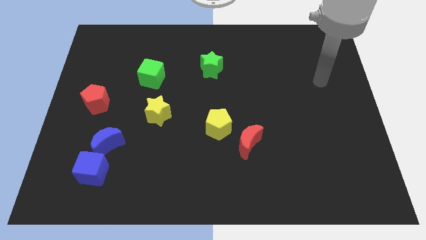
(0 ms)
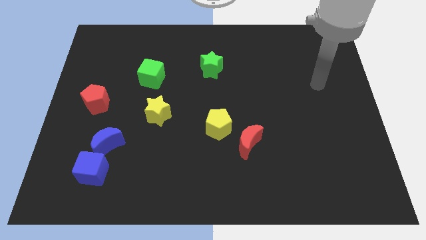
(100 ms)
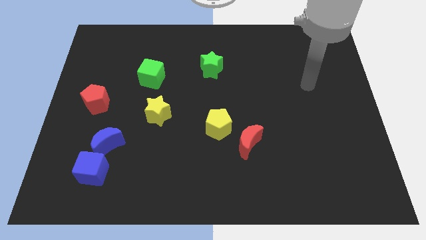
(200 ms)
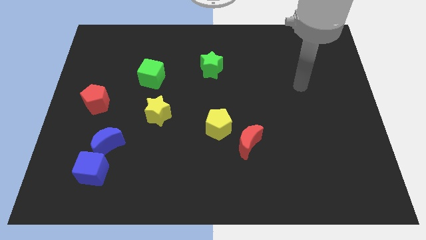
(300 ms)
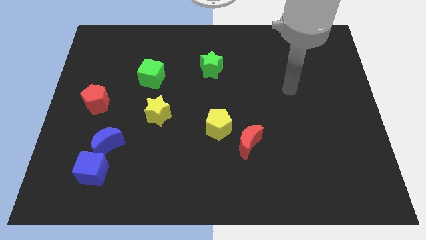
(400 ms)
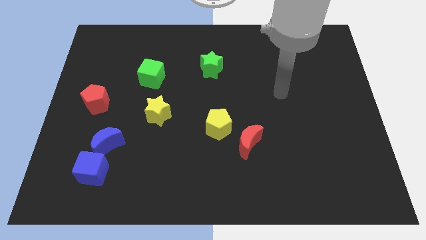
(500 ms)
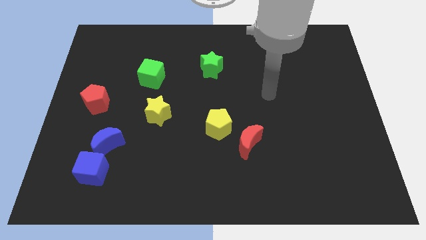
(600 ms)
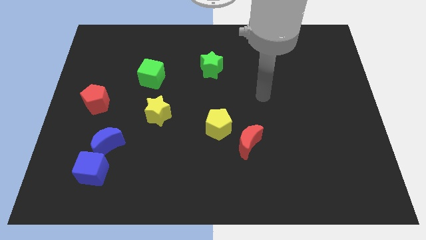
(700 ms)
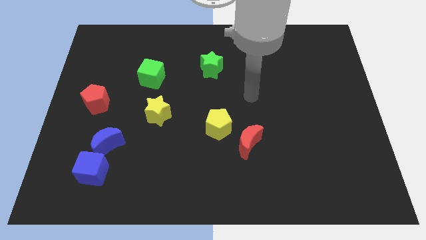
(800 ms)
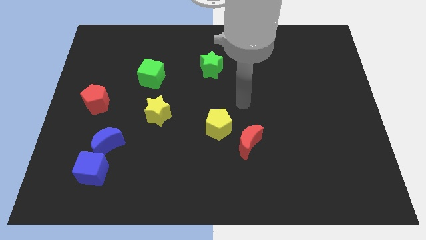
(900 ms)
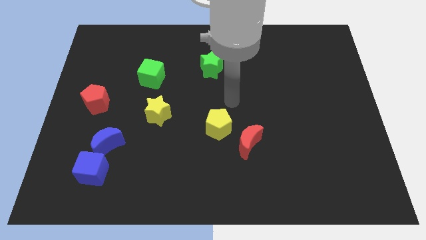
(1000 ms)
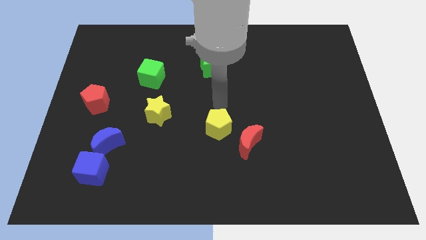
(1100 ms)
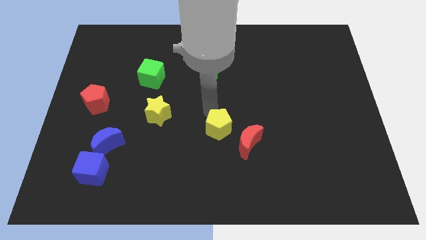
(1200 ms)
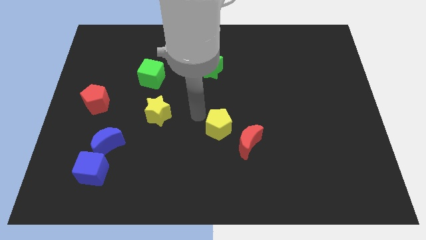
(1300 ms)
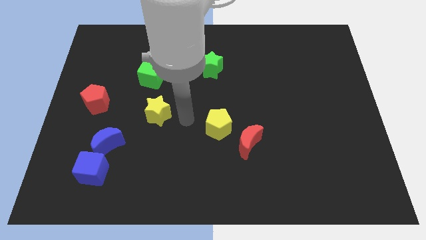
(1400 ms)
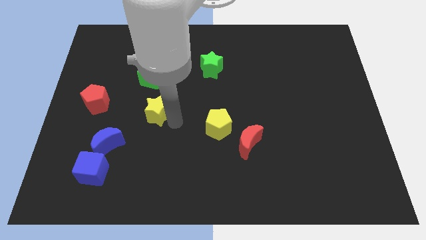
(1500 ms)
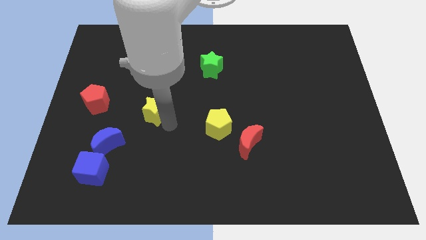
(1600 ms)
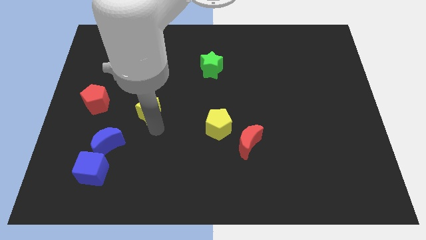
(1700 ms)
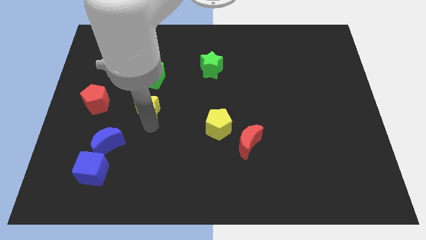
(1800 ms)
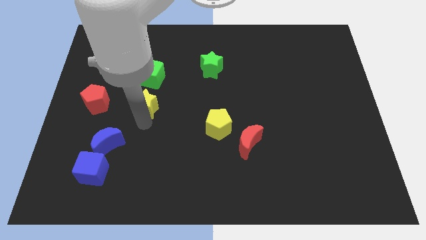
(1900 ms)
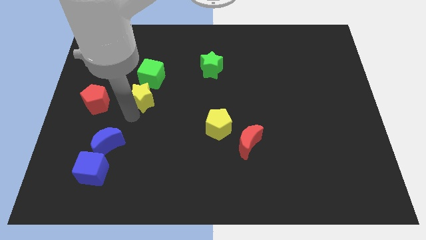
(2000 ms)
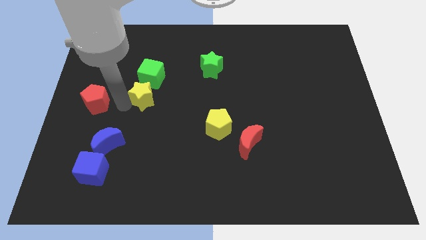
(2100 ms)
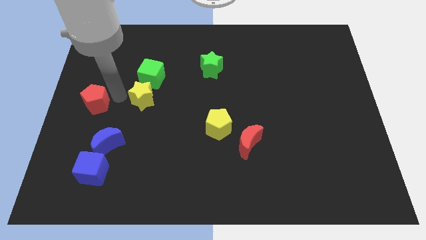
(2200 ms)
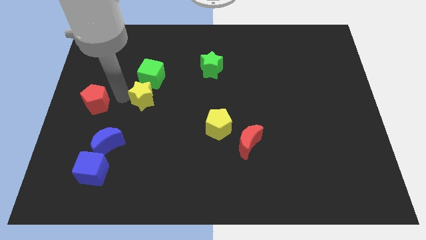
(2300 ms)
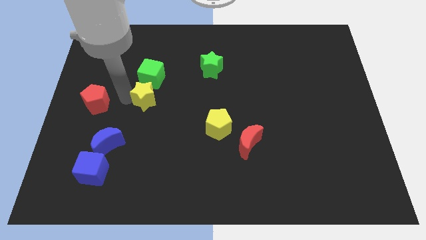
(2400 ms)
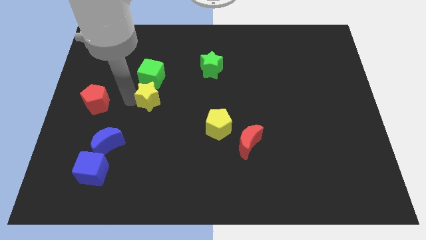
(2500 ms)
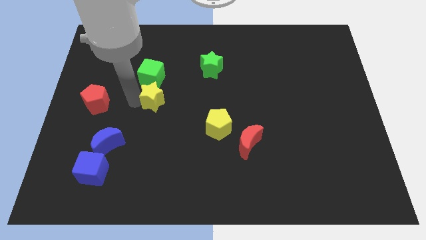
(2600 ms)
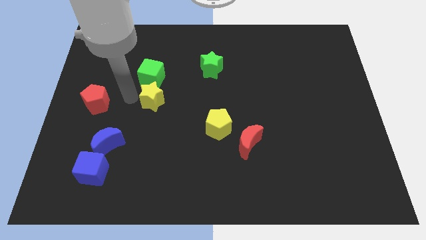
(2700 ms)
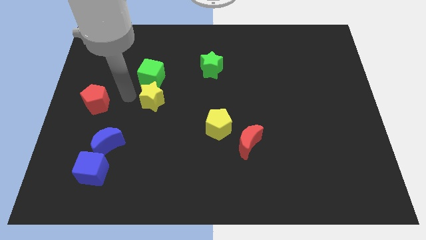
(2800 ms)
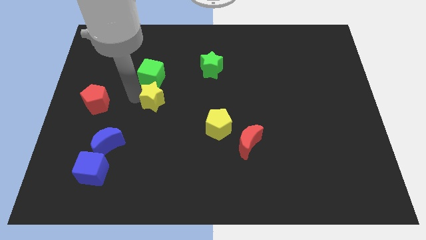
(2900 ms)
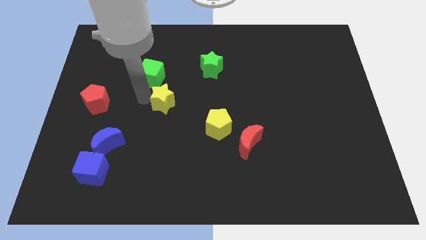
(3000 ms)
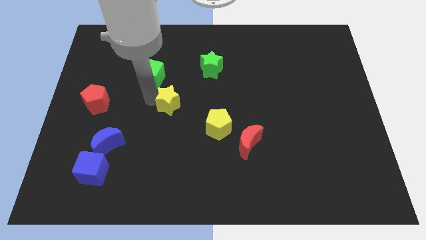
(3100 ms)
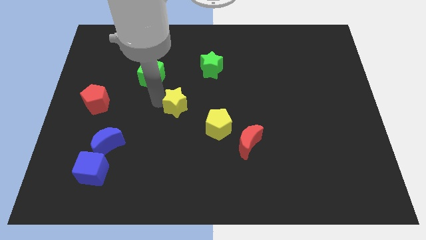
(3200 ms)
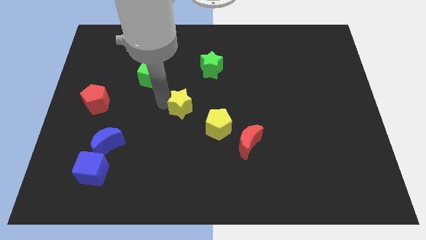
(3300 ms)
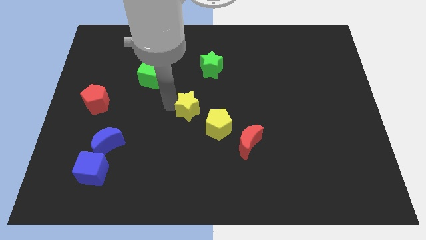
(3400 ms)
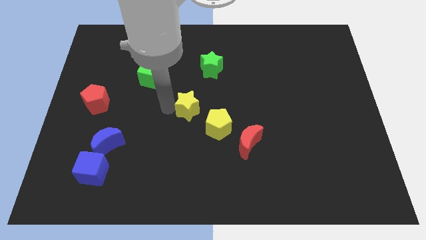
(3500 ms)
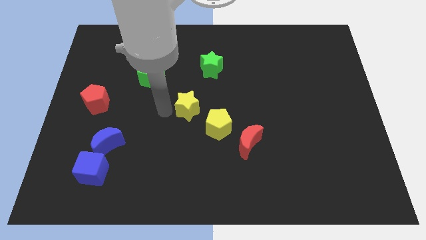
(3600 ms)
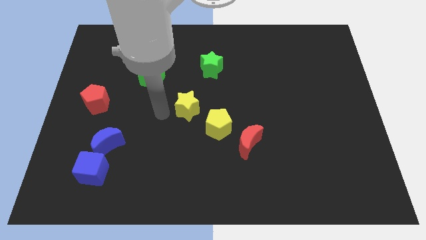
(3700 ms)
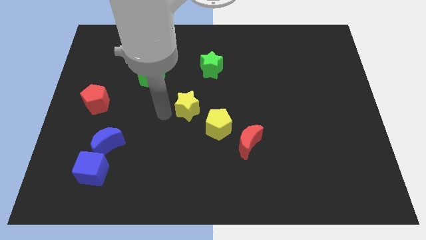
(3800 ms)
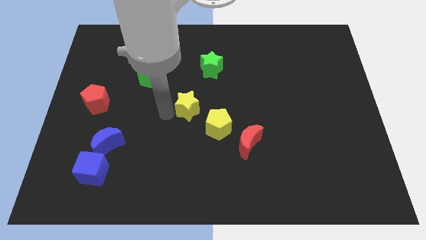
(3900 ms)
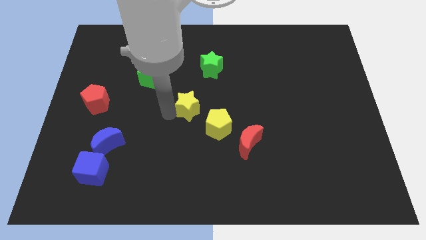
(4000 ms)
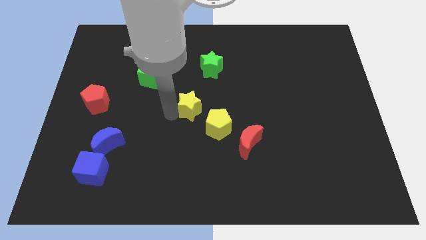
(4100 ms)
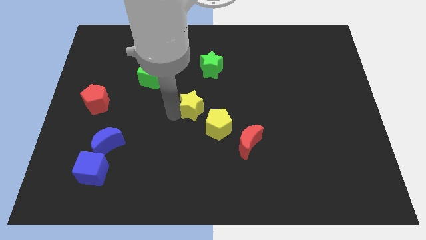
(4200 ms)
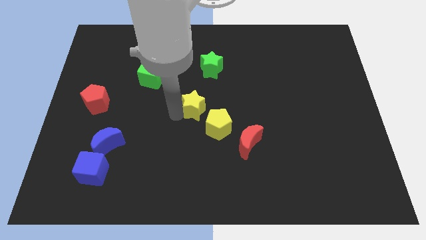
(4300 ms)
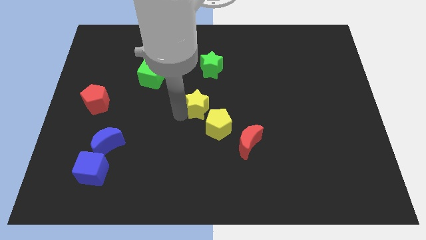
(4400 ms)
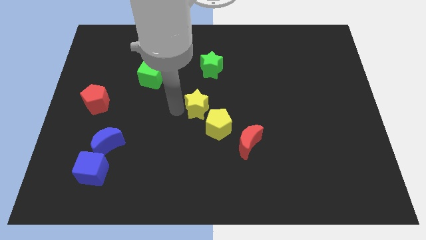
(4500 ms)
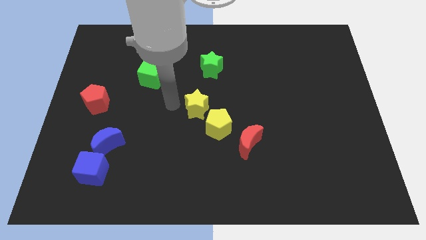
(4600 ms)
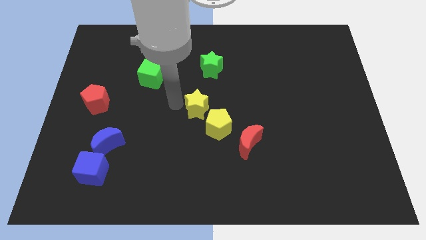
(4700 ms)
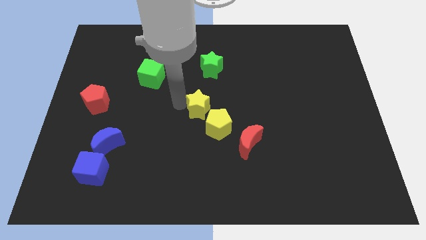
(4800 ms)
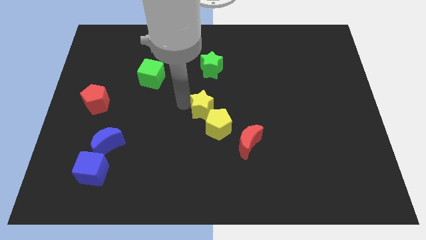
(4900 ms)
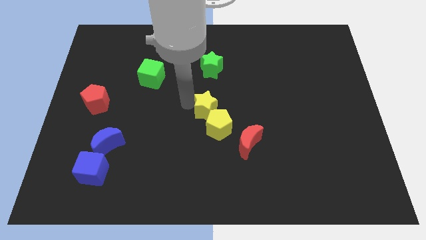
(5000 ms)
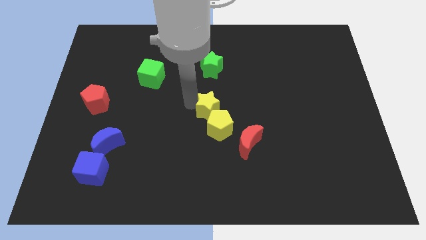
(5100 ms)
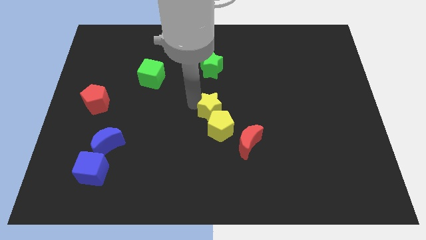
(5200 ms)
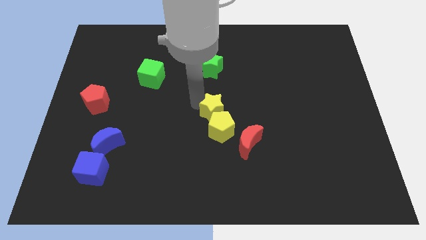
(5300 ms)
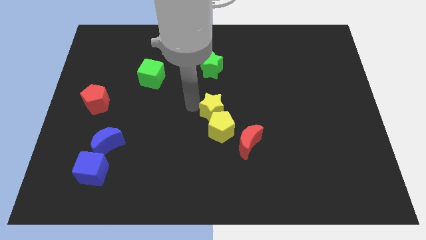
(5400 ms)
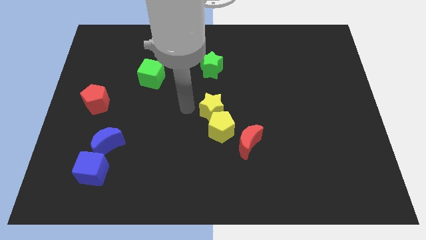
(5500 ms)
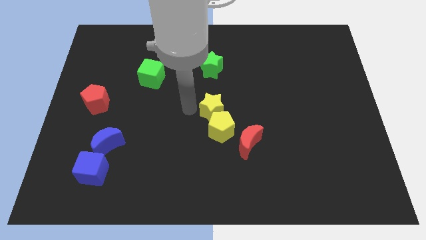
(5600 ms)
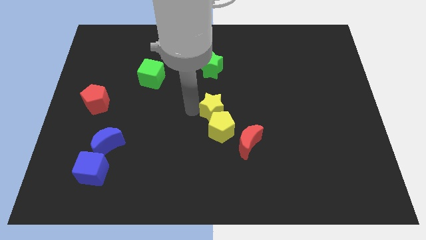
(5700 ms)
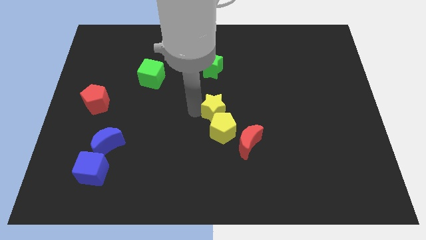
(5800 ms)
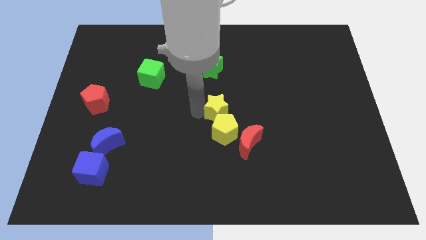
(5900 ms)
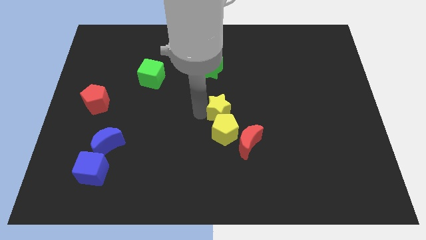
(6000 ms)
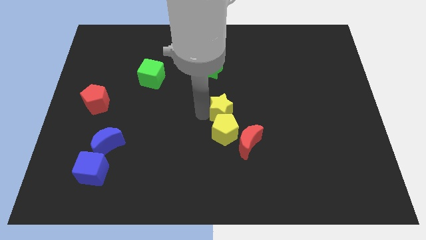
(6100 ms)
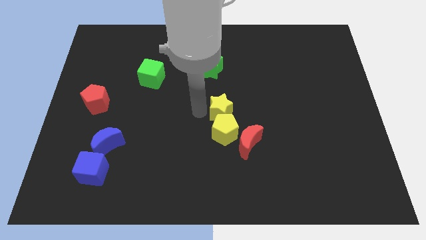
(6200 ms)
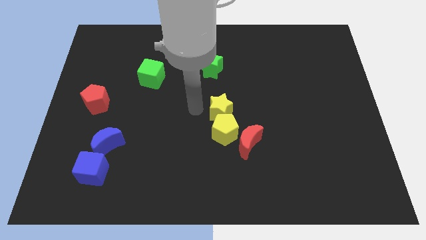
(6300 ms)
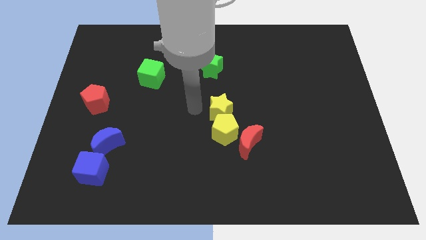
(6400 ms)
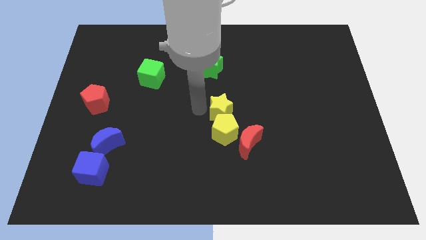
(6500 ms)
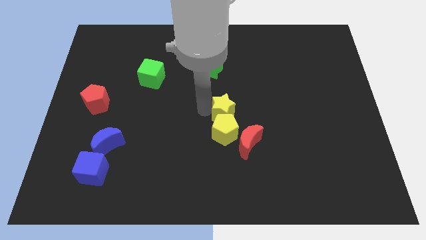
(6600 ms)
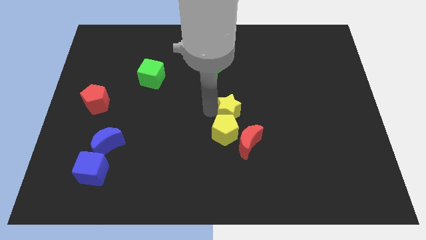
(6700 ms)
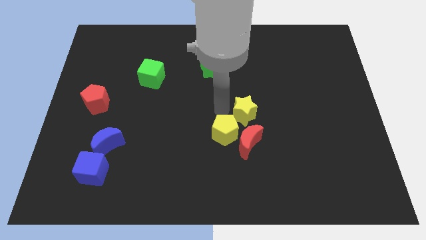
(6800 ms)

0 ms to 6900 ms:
move the yellow star right of the yellow pentagon

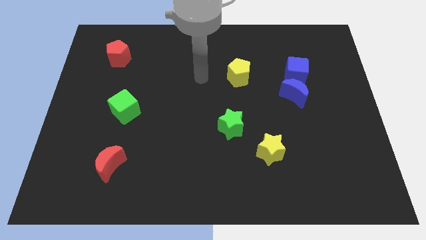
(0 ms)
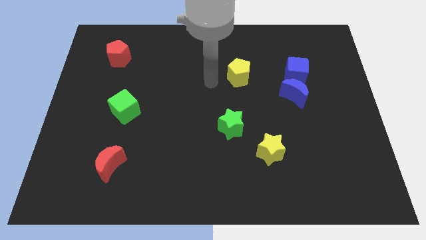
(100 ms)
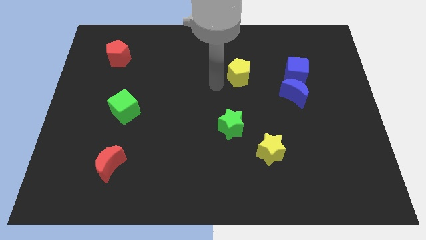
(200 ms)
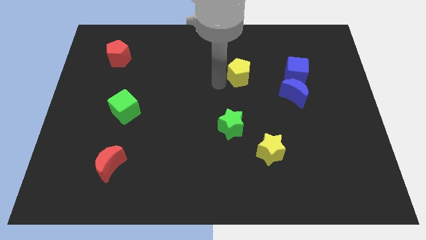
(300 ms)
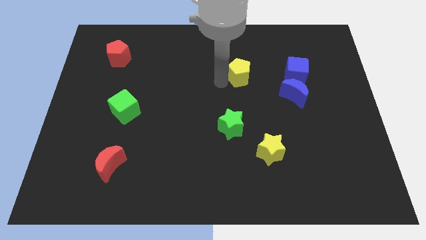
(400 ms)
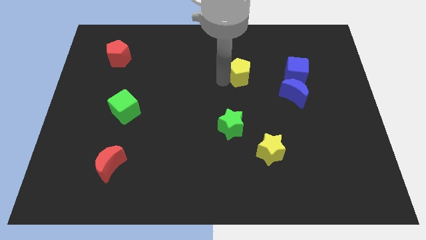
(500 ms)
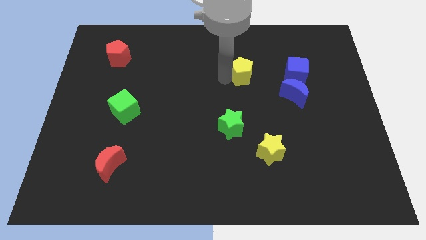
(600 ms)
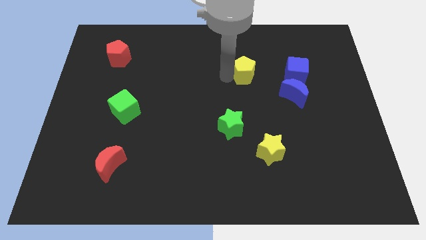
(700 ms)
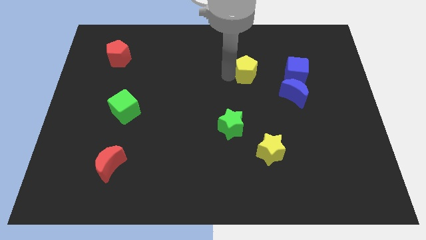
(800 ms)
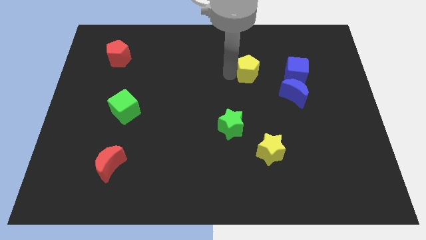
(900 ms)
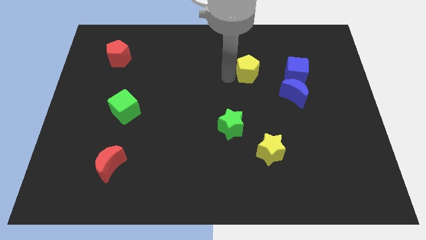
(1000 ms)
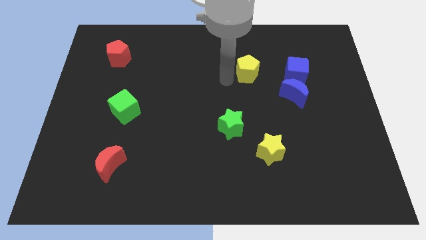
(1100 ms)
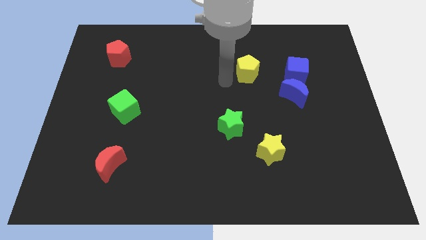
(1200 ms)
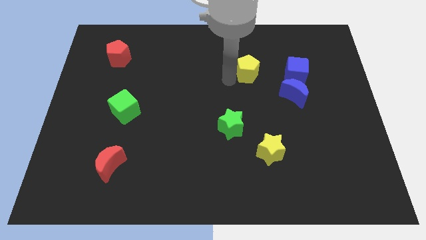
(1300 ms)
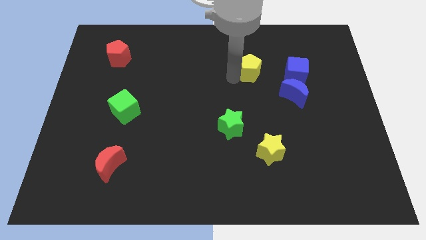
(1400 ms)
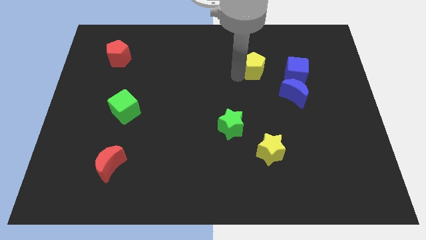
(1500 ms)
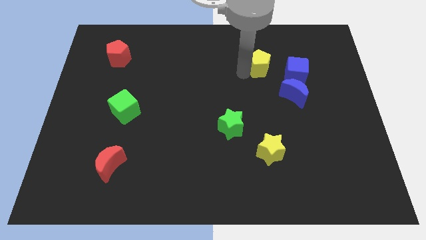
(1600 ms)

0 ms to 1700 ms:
move the yellow pentagon diagonally up and to the left of the blue cube
